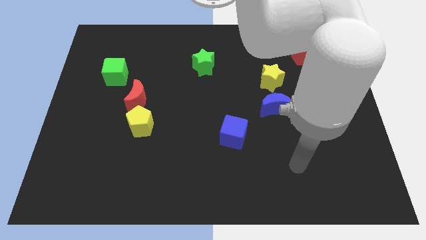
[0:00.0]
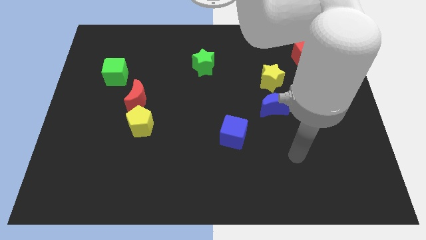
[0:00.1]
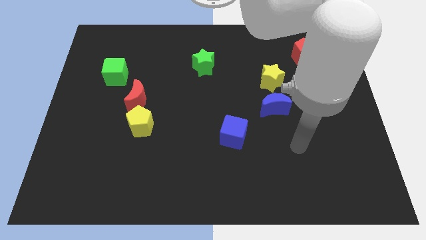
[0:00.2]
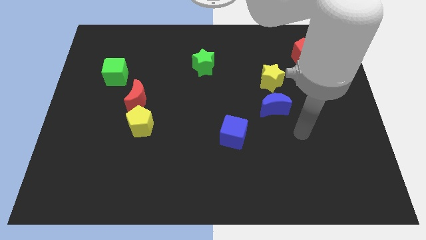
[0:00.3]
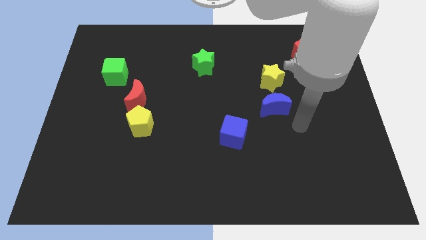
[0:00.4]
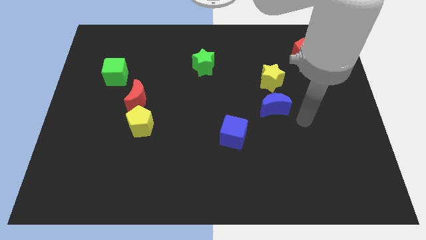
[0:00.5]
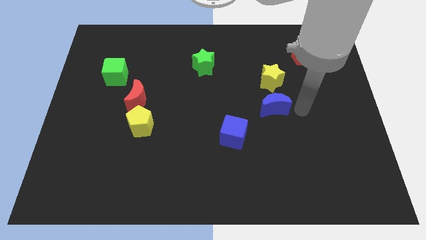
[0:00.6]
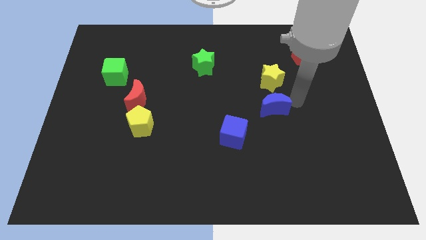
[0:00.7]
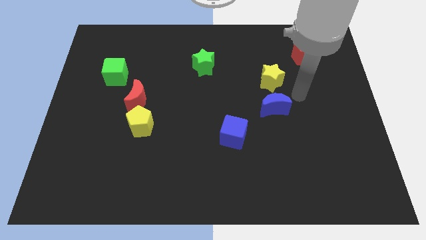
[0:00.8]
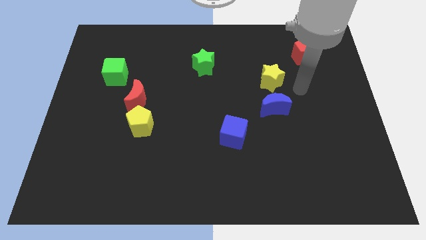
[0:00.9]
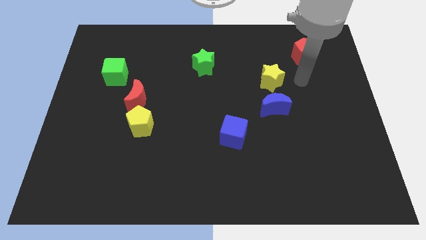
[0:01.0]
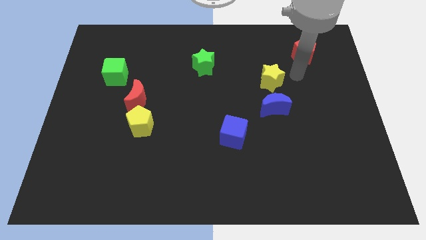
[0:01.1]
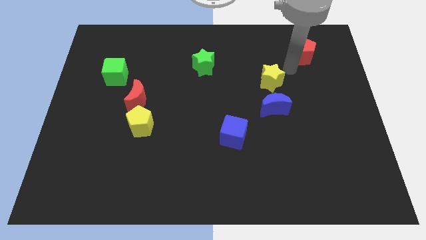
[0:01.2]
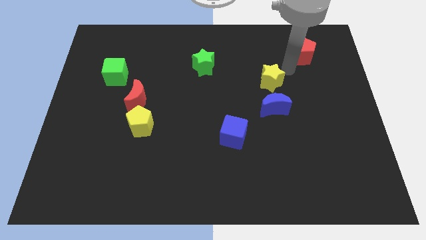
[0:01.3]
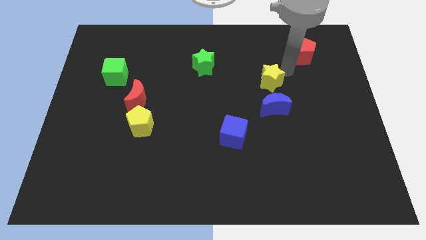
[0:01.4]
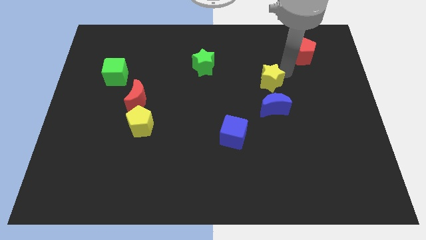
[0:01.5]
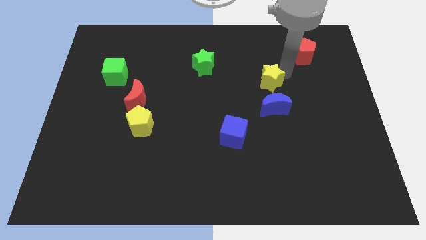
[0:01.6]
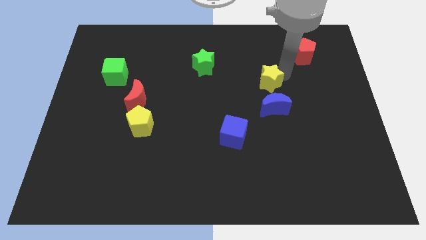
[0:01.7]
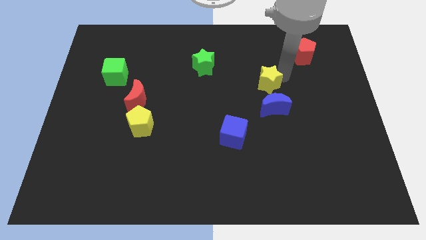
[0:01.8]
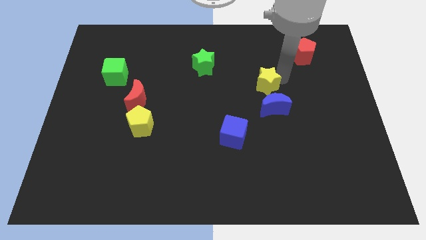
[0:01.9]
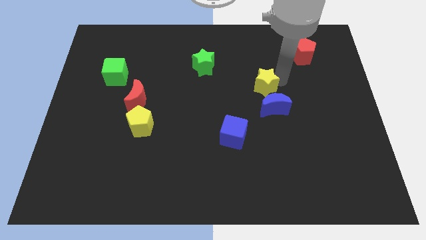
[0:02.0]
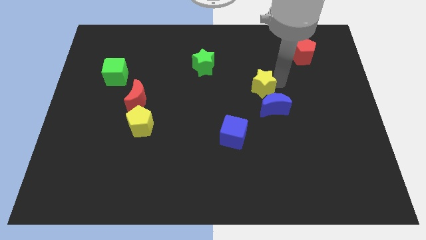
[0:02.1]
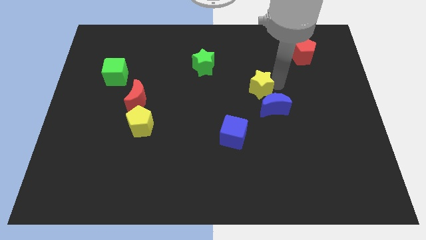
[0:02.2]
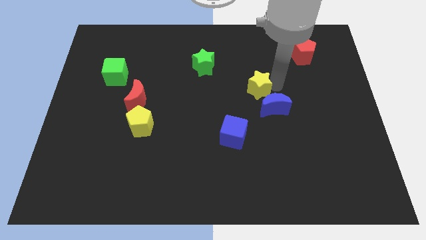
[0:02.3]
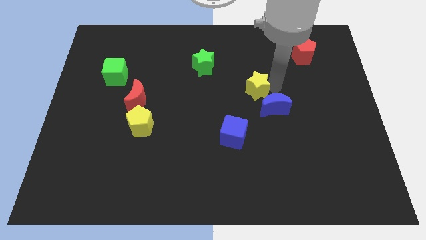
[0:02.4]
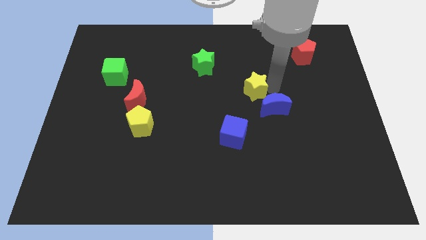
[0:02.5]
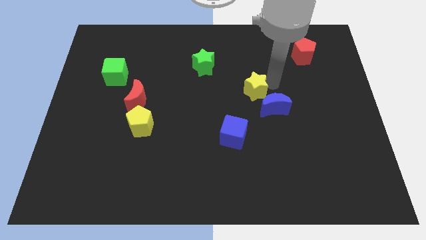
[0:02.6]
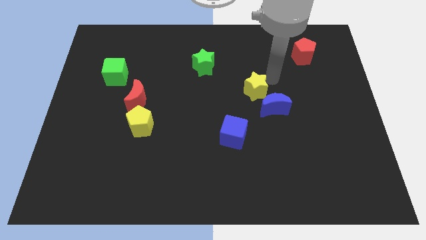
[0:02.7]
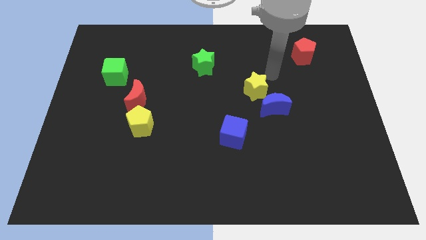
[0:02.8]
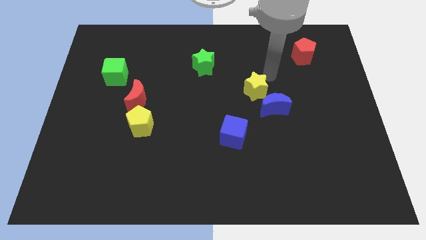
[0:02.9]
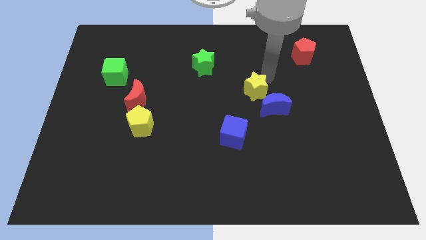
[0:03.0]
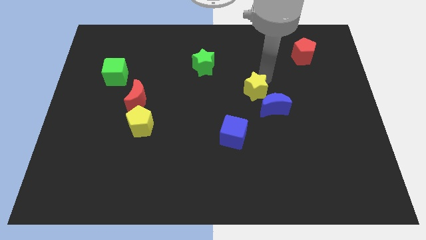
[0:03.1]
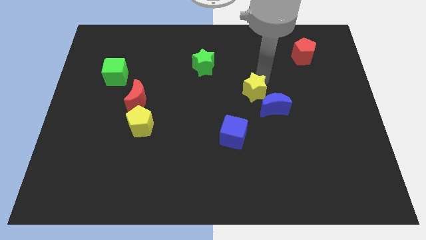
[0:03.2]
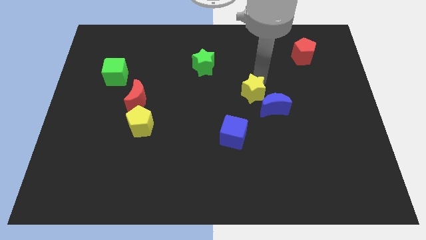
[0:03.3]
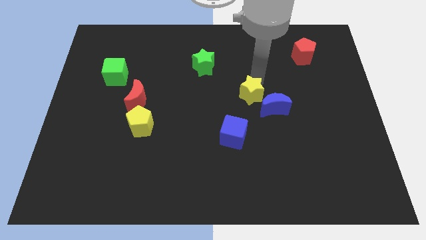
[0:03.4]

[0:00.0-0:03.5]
slide the yellow star down and to the left somewhat

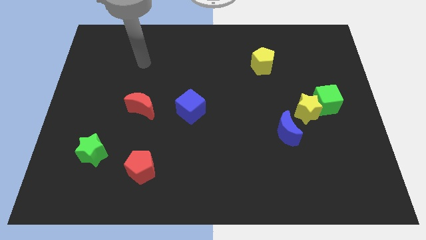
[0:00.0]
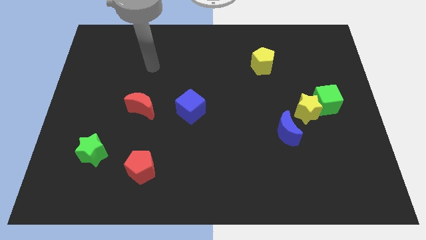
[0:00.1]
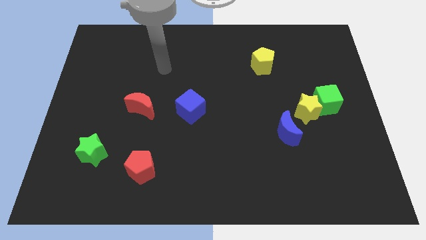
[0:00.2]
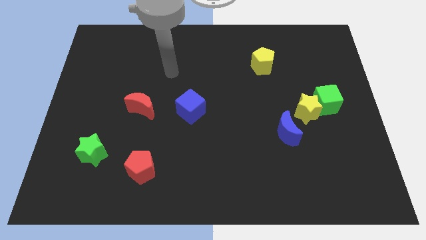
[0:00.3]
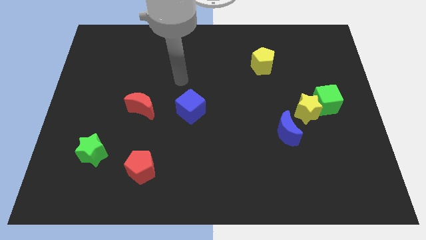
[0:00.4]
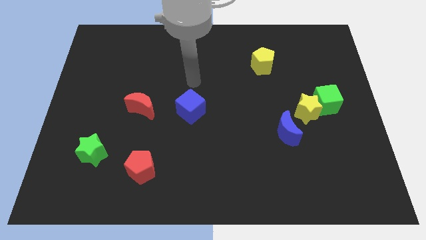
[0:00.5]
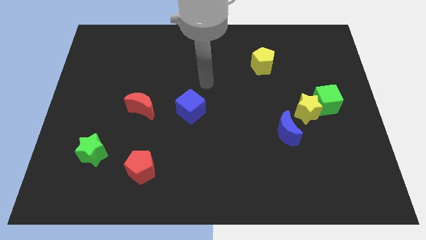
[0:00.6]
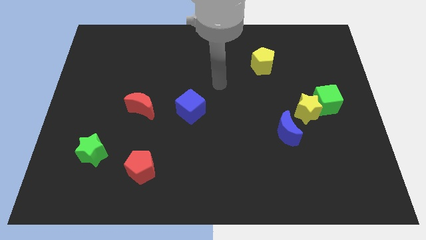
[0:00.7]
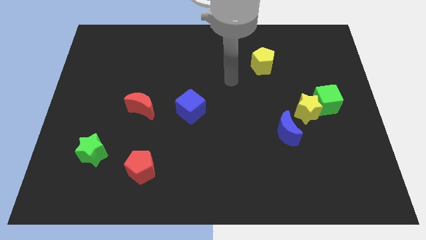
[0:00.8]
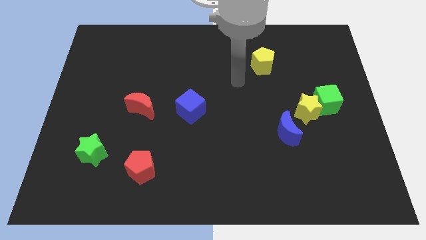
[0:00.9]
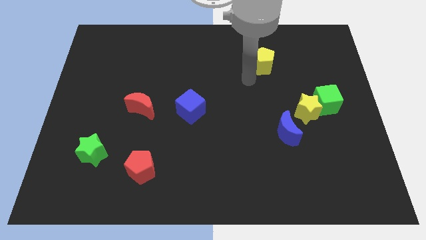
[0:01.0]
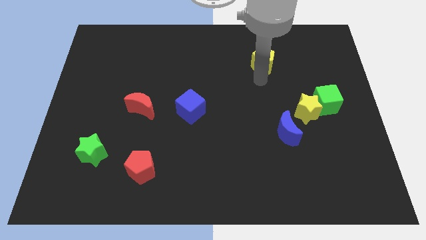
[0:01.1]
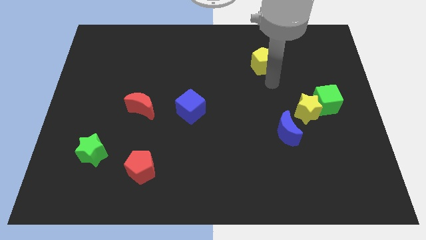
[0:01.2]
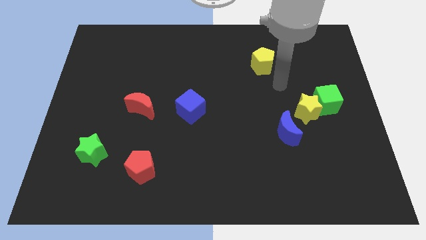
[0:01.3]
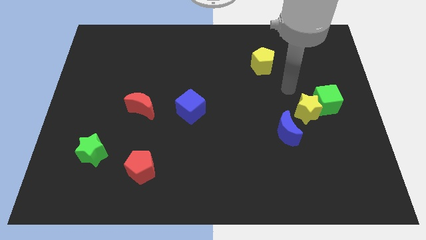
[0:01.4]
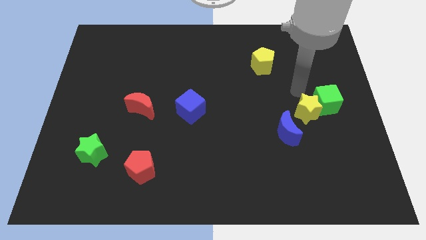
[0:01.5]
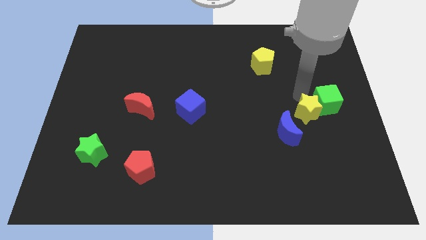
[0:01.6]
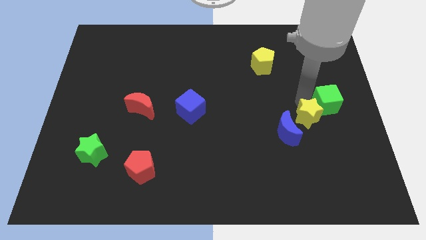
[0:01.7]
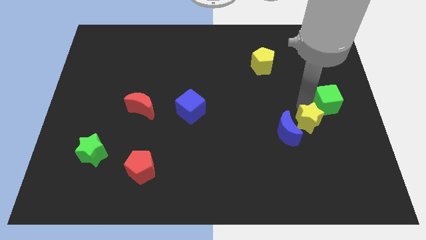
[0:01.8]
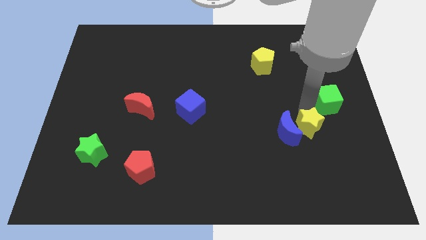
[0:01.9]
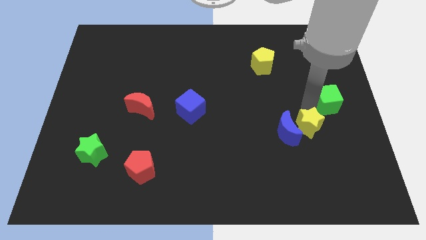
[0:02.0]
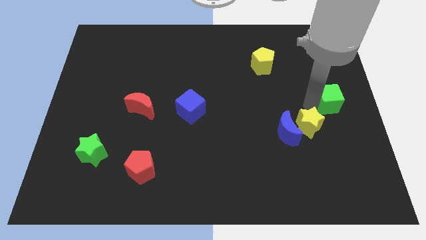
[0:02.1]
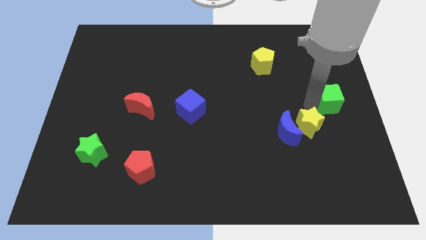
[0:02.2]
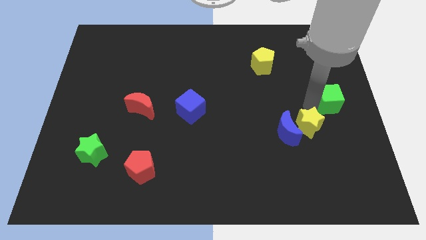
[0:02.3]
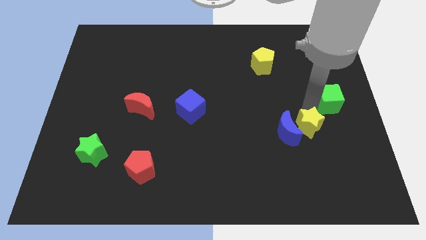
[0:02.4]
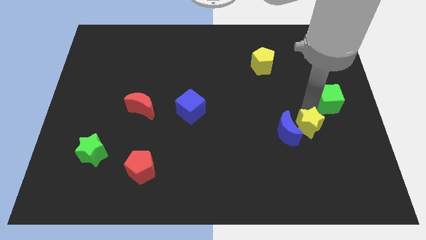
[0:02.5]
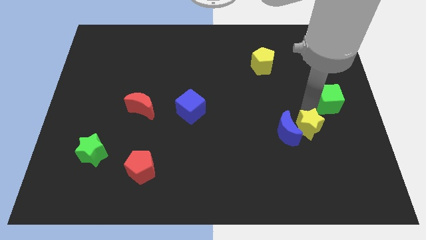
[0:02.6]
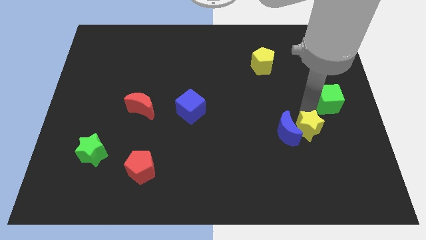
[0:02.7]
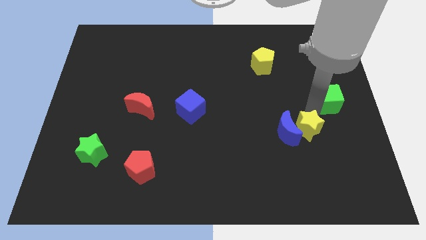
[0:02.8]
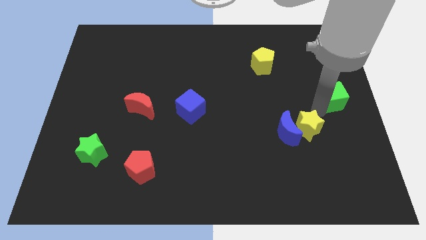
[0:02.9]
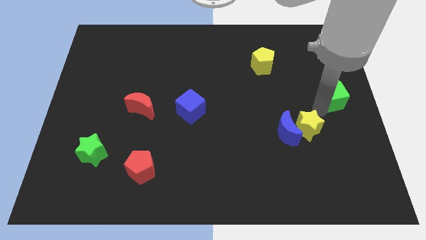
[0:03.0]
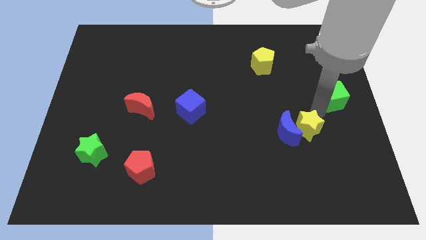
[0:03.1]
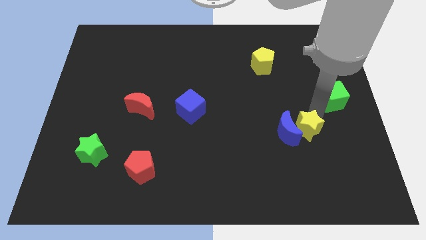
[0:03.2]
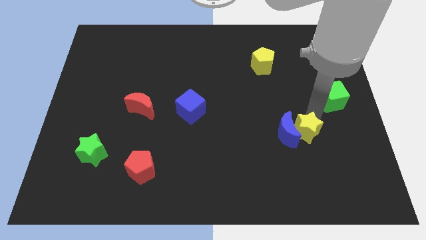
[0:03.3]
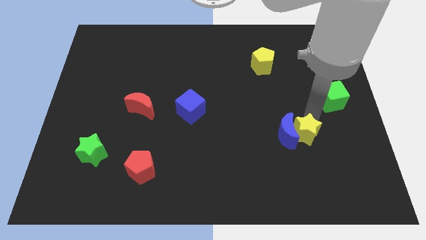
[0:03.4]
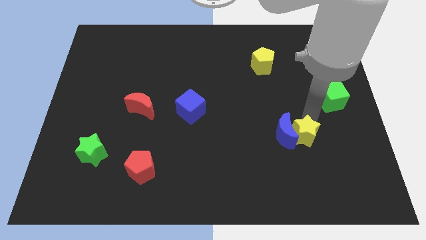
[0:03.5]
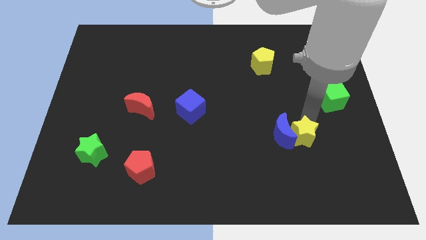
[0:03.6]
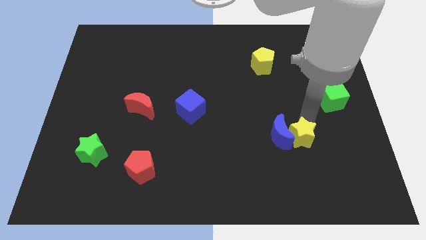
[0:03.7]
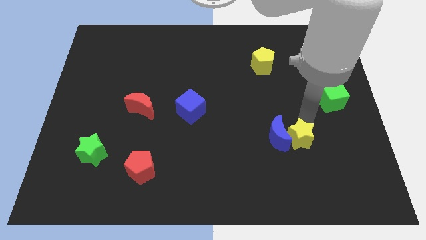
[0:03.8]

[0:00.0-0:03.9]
slightly push the yellow star downwards and to the left

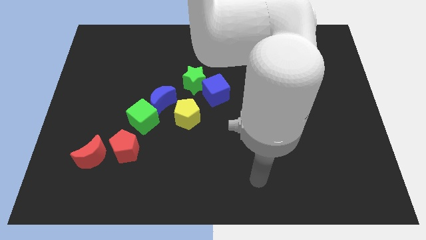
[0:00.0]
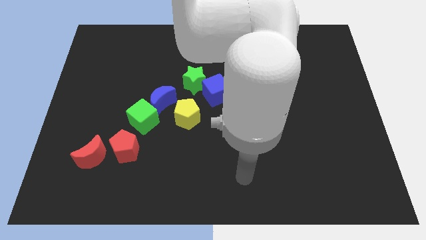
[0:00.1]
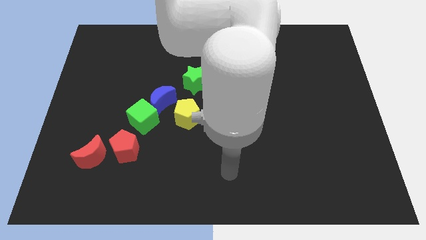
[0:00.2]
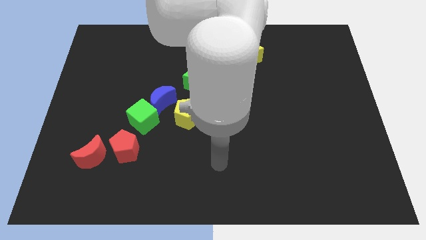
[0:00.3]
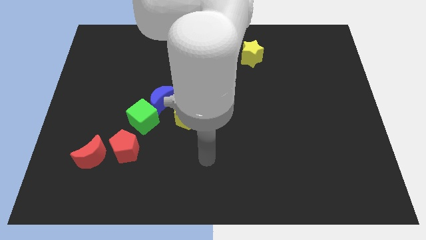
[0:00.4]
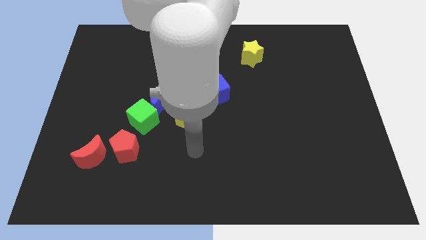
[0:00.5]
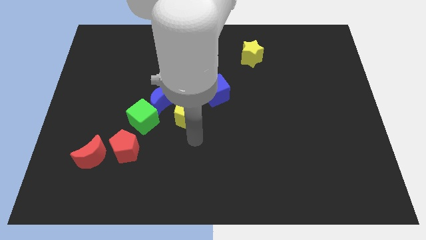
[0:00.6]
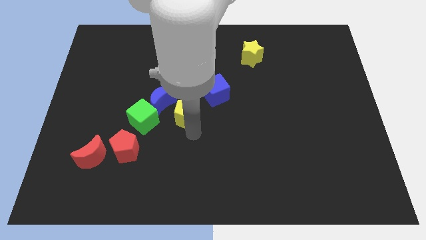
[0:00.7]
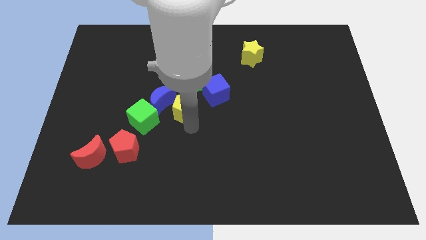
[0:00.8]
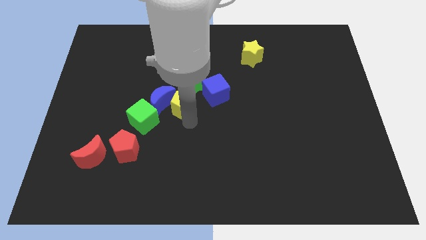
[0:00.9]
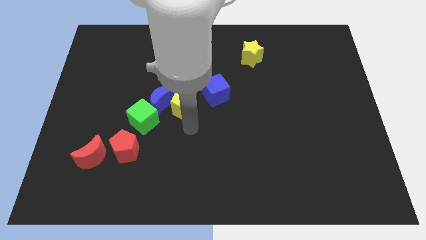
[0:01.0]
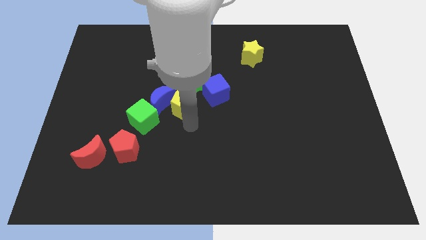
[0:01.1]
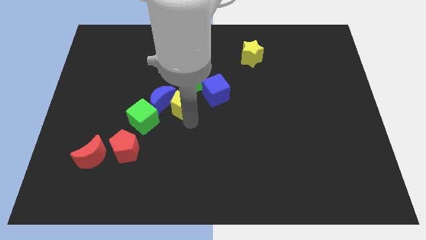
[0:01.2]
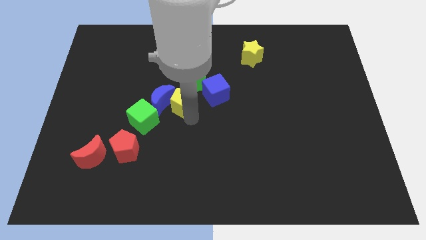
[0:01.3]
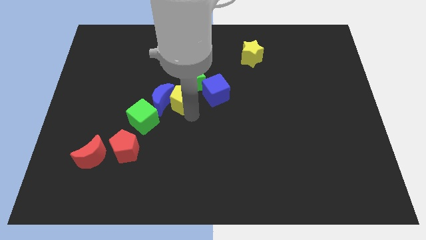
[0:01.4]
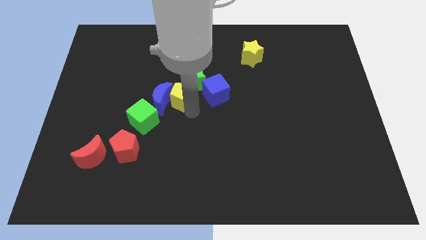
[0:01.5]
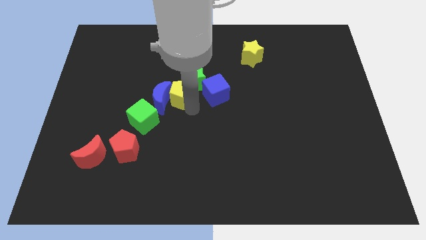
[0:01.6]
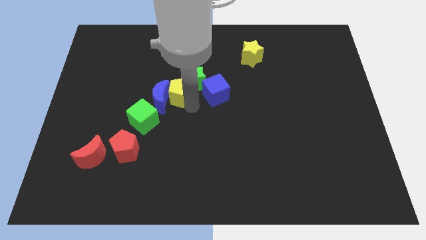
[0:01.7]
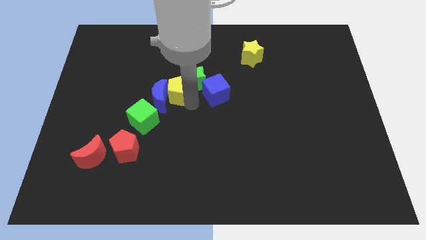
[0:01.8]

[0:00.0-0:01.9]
slightly slide the yellow pentagon up
